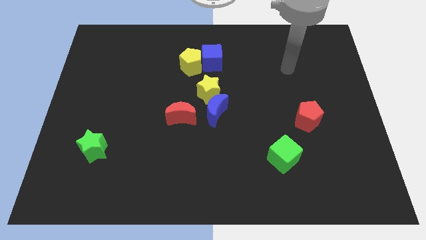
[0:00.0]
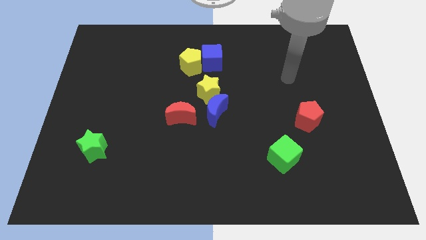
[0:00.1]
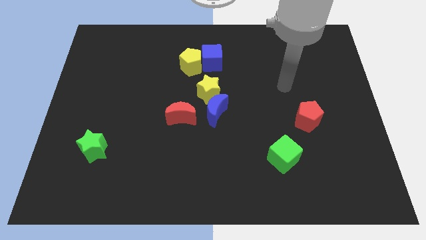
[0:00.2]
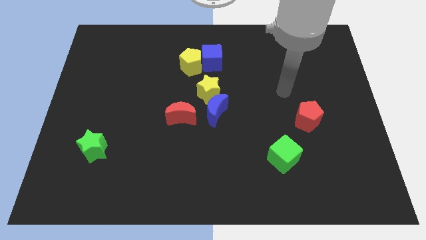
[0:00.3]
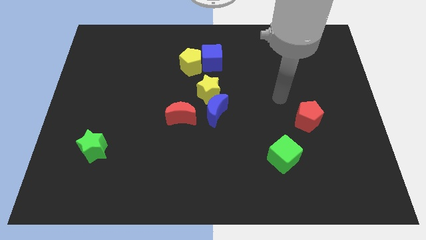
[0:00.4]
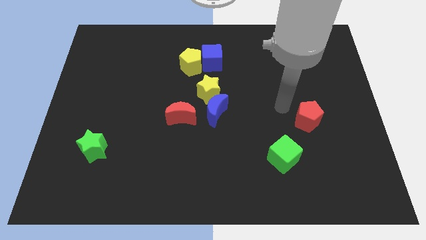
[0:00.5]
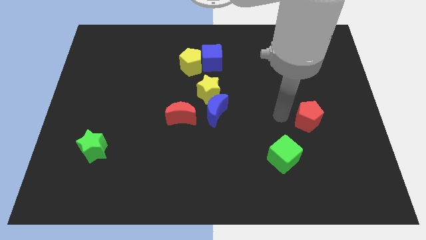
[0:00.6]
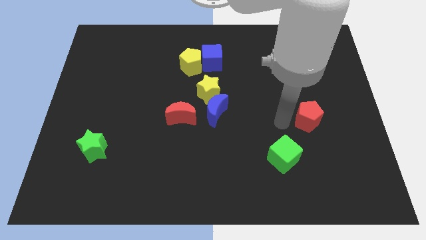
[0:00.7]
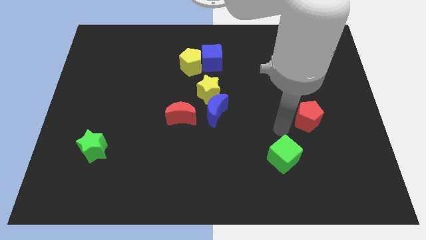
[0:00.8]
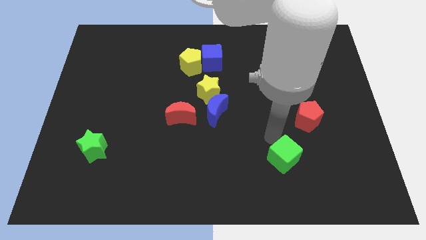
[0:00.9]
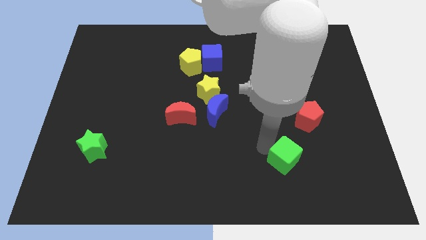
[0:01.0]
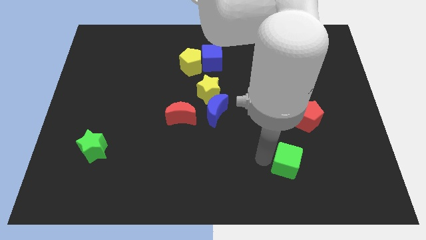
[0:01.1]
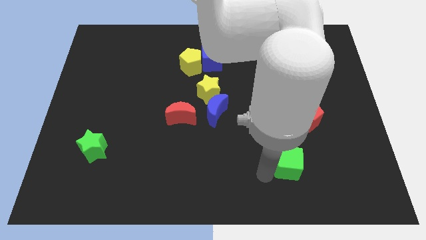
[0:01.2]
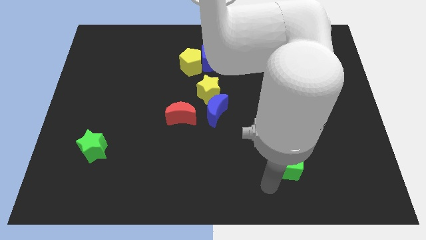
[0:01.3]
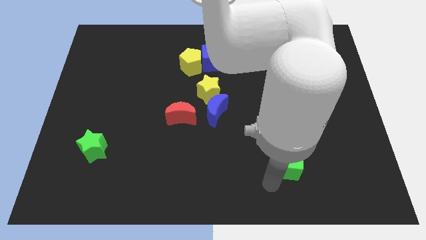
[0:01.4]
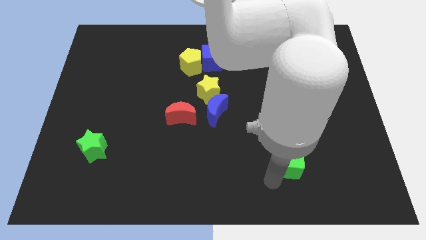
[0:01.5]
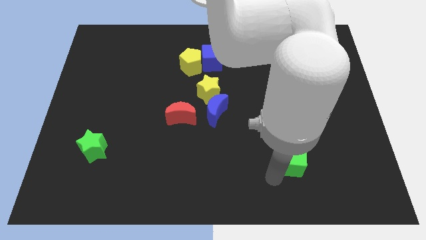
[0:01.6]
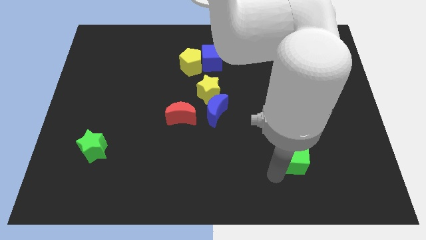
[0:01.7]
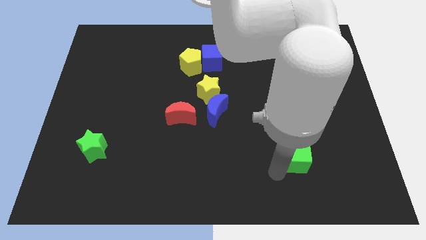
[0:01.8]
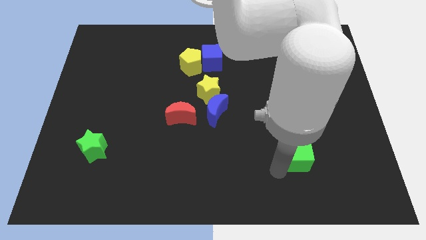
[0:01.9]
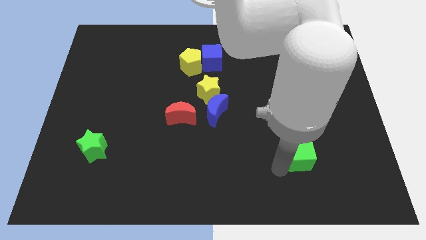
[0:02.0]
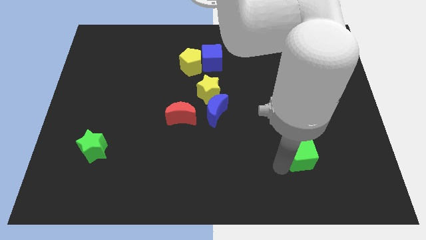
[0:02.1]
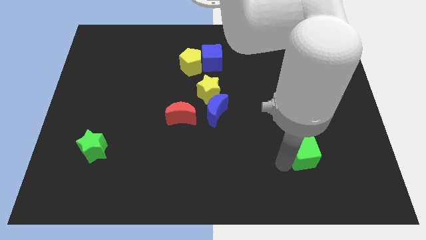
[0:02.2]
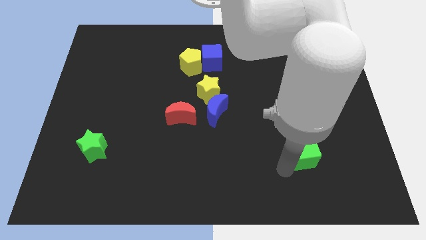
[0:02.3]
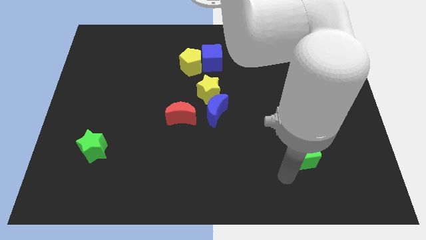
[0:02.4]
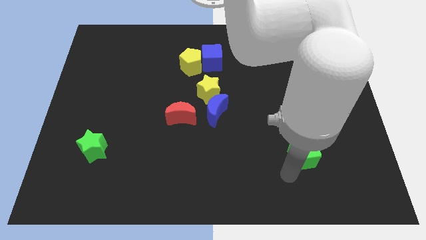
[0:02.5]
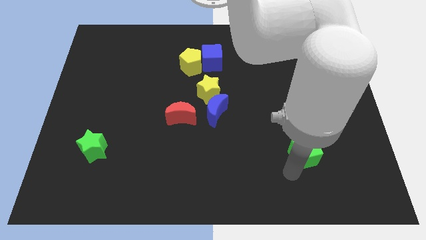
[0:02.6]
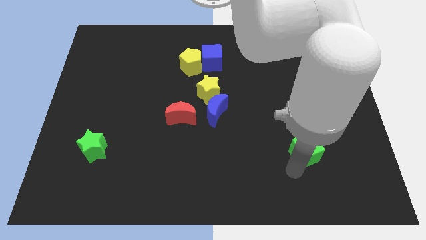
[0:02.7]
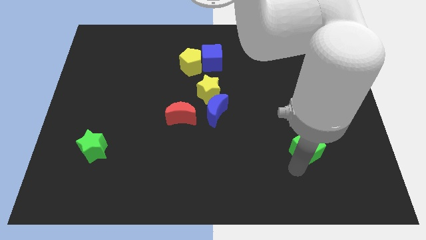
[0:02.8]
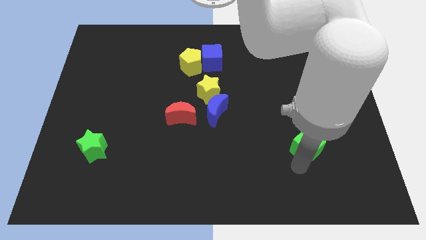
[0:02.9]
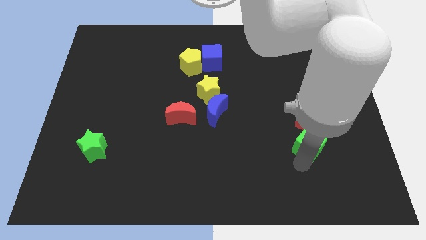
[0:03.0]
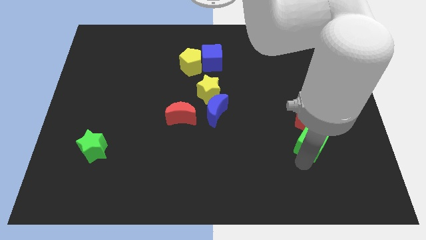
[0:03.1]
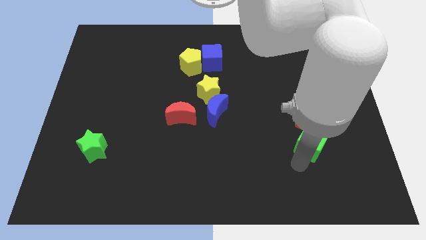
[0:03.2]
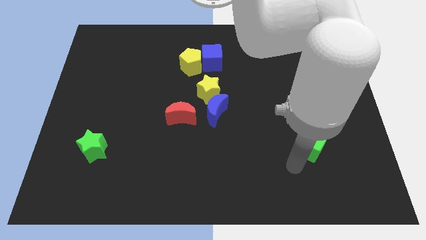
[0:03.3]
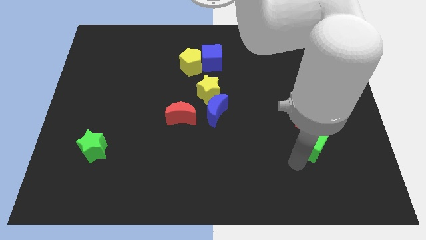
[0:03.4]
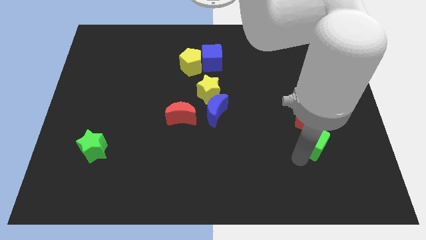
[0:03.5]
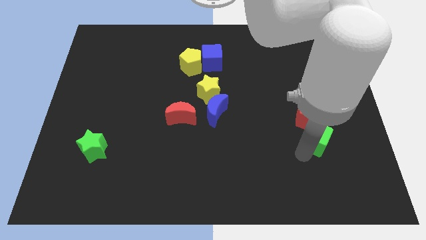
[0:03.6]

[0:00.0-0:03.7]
slightly push the green cube diagonally up and right

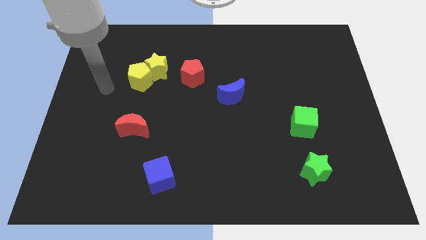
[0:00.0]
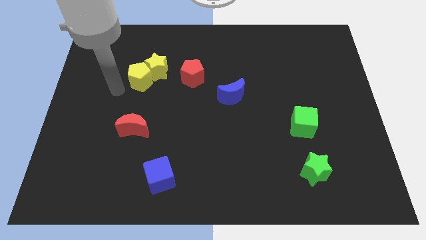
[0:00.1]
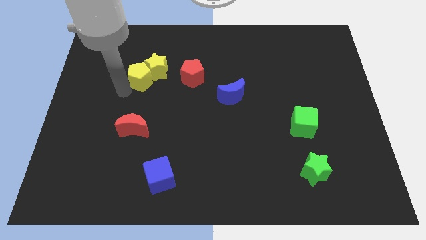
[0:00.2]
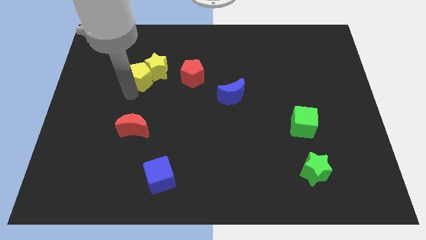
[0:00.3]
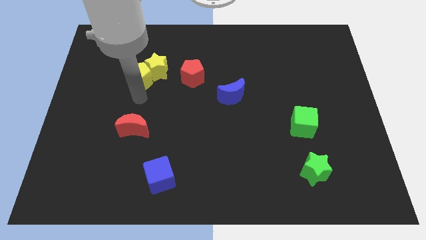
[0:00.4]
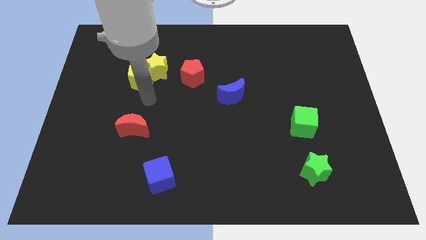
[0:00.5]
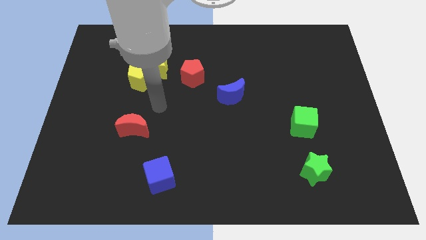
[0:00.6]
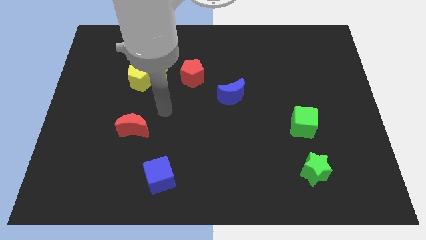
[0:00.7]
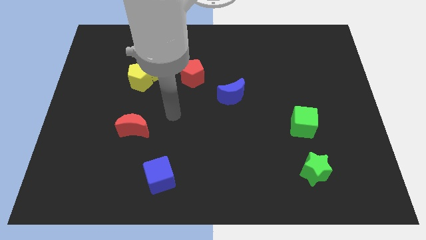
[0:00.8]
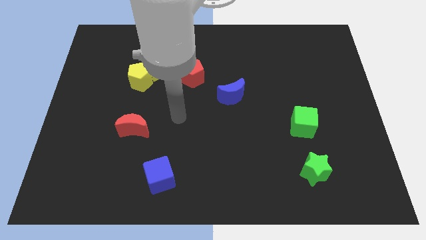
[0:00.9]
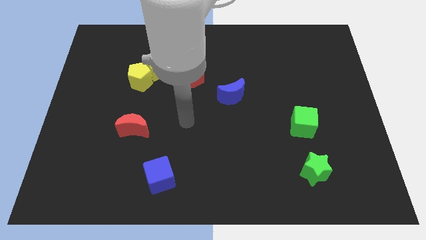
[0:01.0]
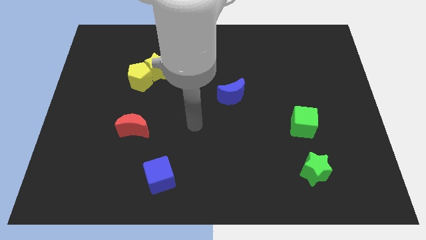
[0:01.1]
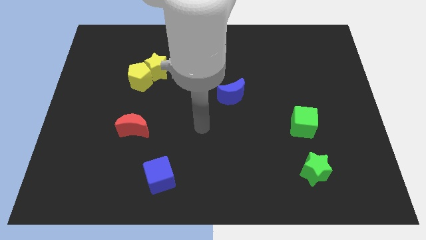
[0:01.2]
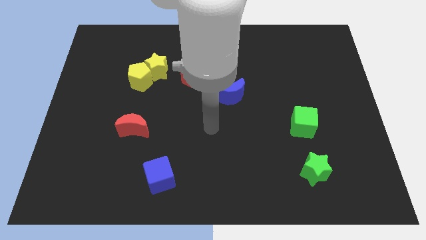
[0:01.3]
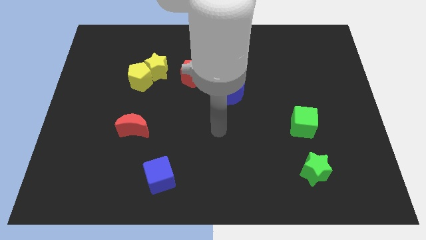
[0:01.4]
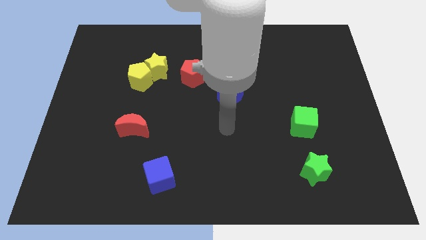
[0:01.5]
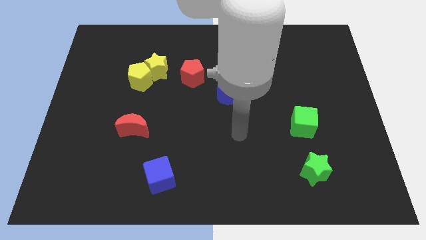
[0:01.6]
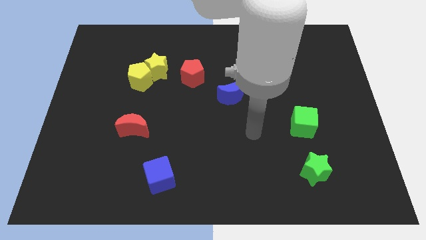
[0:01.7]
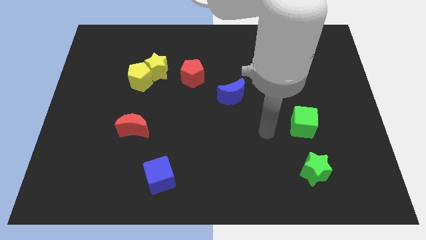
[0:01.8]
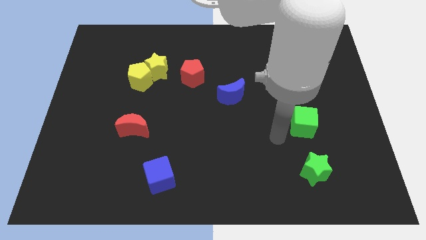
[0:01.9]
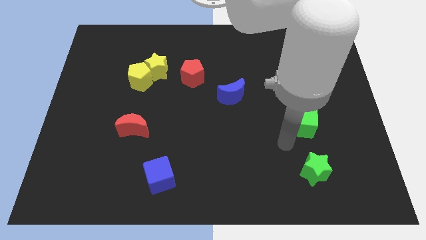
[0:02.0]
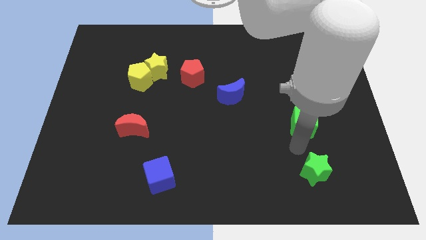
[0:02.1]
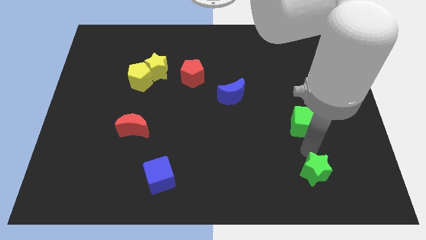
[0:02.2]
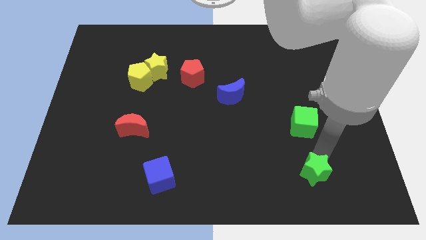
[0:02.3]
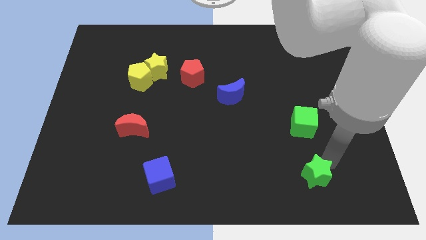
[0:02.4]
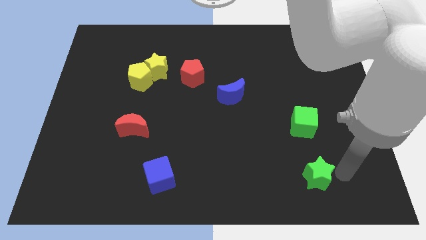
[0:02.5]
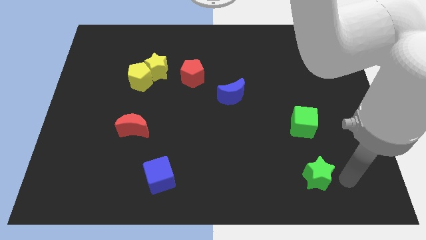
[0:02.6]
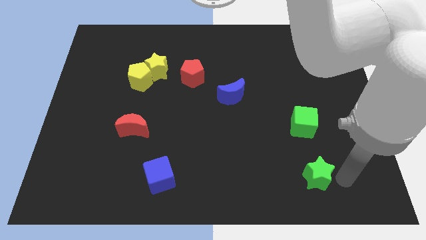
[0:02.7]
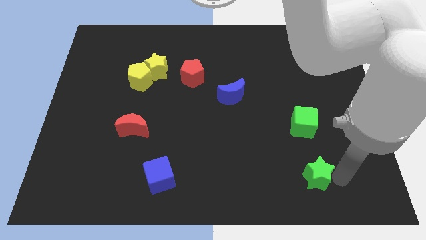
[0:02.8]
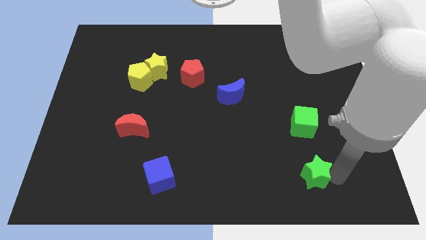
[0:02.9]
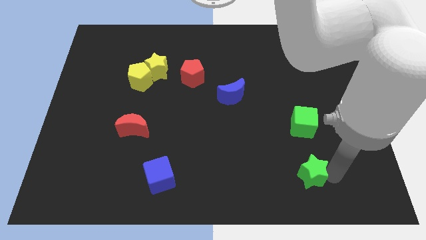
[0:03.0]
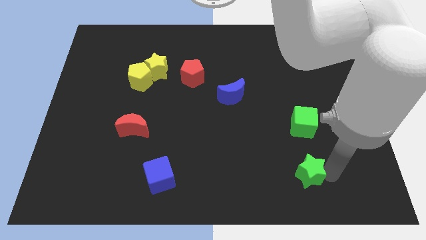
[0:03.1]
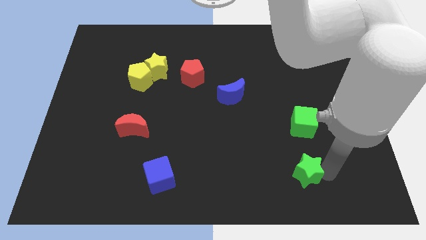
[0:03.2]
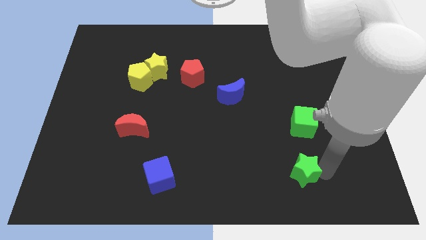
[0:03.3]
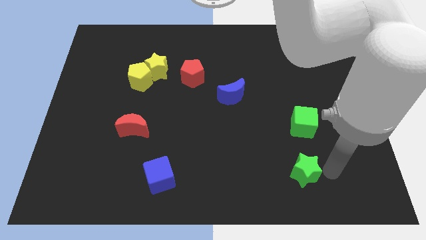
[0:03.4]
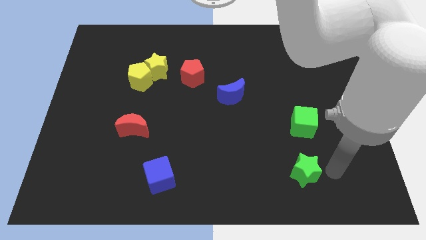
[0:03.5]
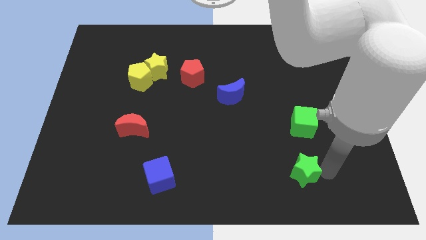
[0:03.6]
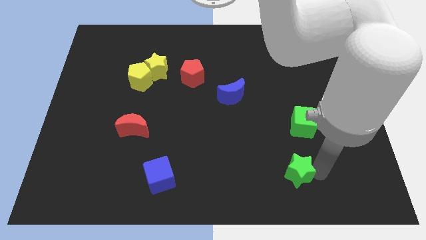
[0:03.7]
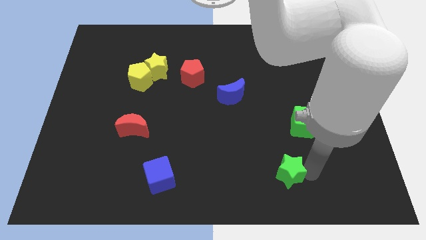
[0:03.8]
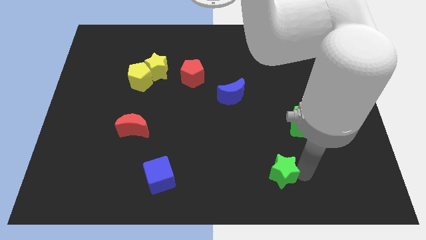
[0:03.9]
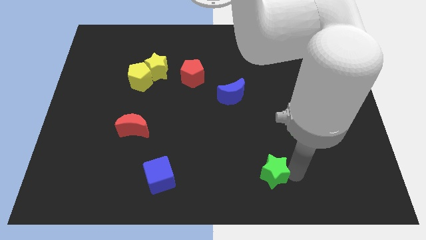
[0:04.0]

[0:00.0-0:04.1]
push the green star a little bit left
